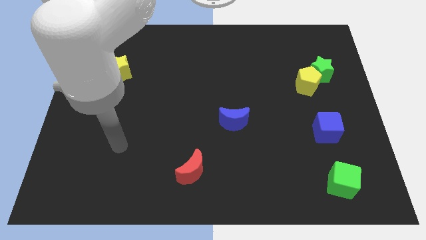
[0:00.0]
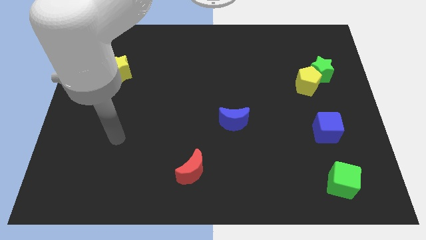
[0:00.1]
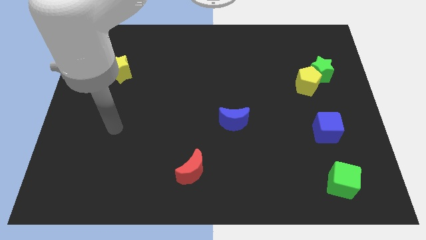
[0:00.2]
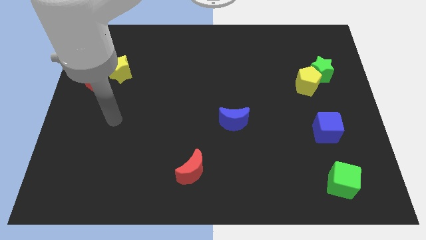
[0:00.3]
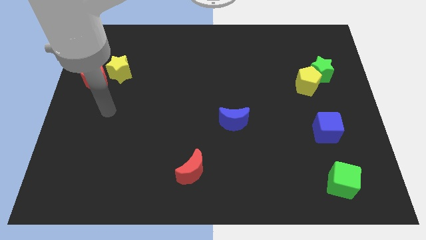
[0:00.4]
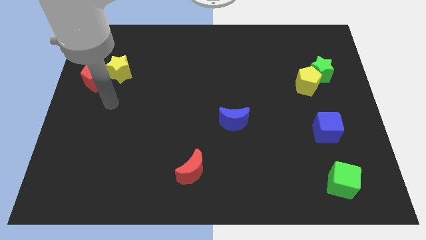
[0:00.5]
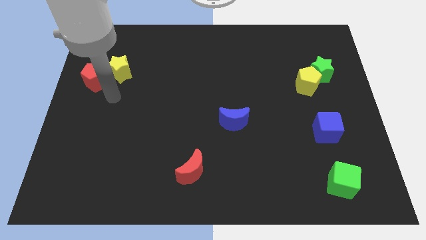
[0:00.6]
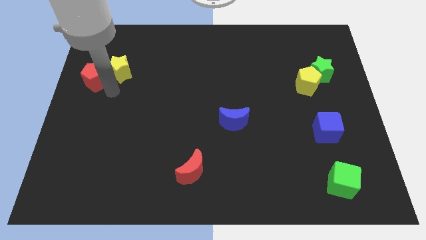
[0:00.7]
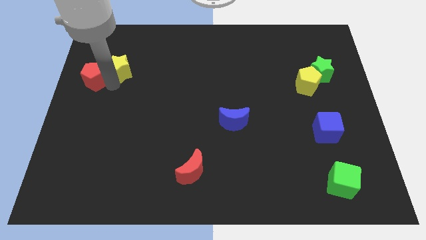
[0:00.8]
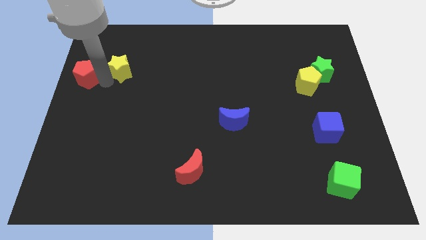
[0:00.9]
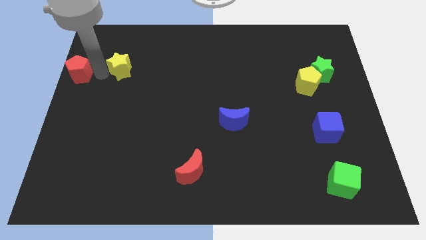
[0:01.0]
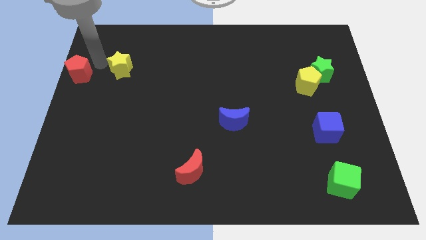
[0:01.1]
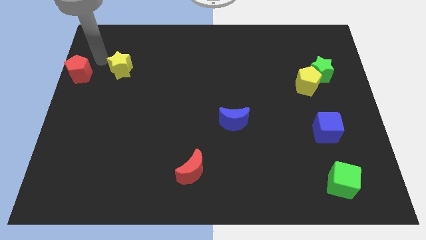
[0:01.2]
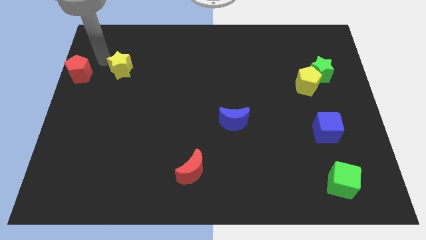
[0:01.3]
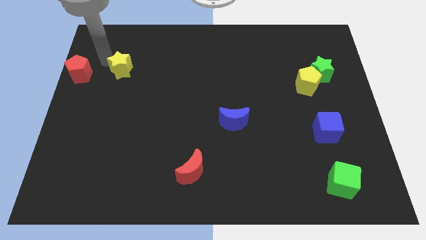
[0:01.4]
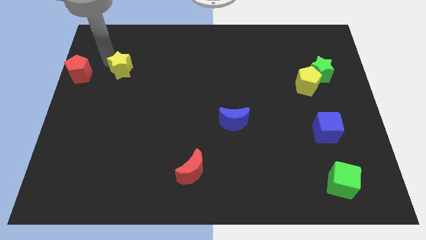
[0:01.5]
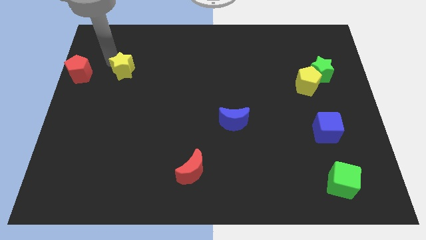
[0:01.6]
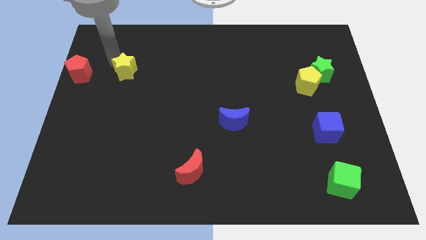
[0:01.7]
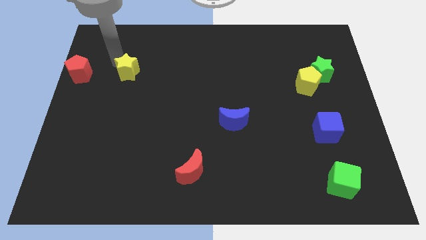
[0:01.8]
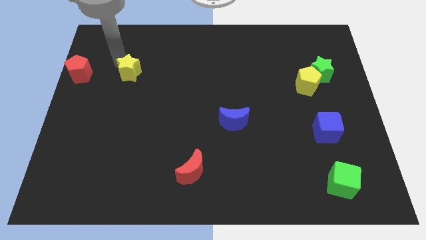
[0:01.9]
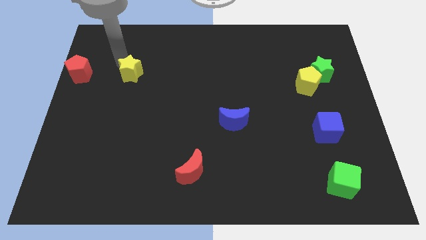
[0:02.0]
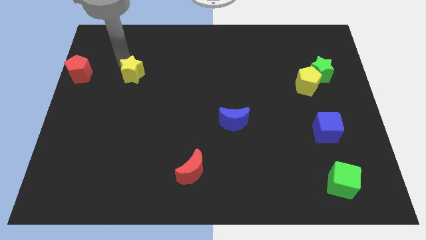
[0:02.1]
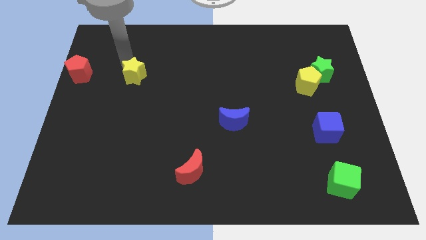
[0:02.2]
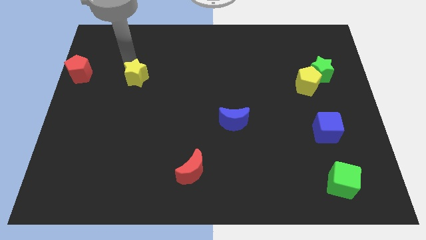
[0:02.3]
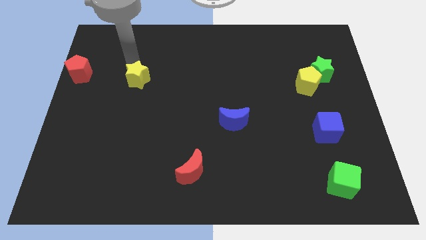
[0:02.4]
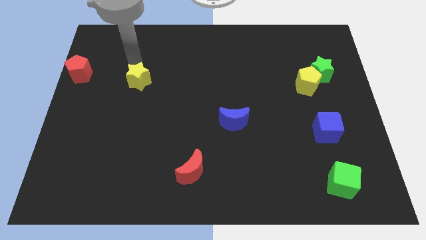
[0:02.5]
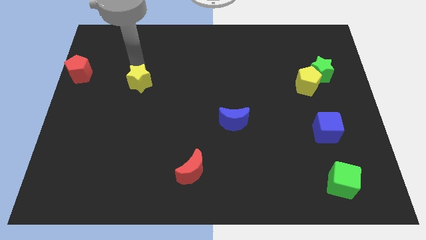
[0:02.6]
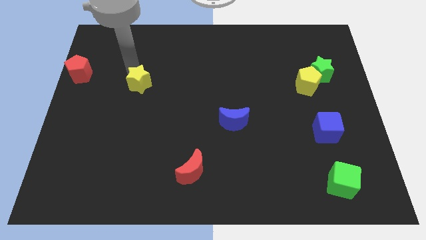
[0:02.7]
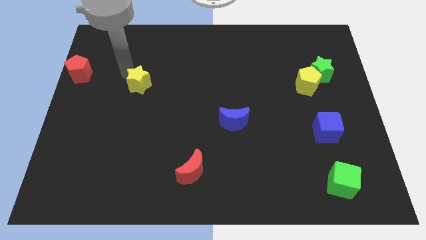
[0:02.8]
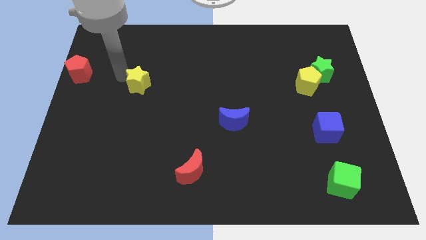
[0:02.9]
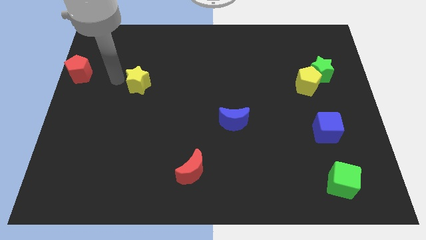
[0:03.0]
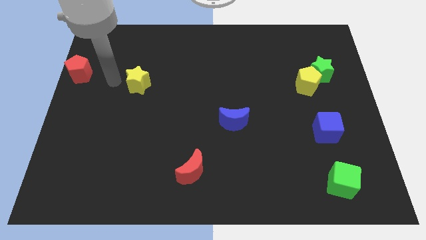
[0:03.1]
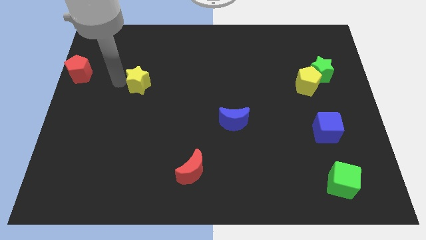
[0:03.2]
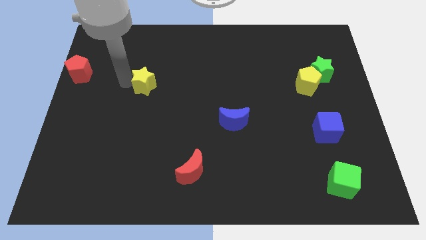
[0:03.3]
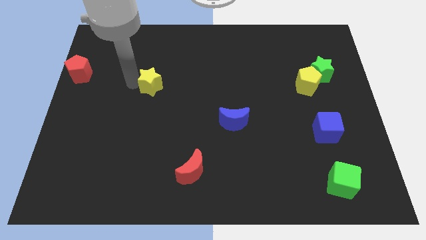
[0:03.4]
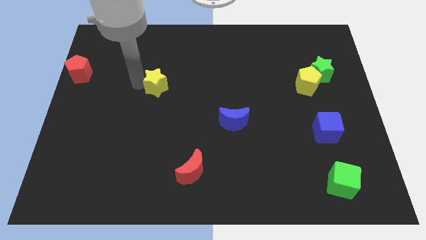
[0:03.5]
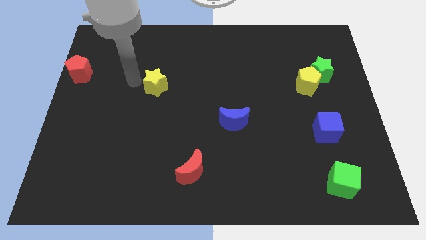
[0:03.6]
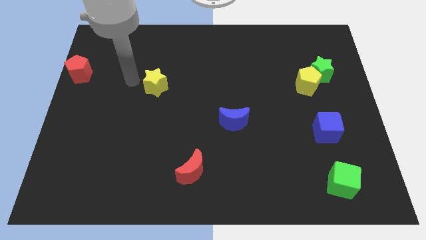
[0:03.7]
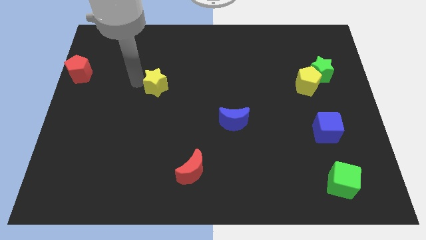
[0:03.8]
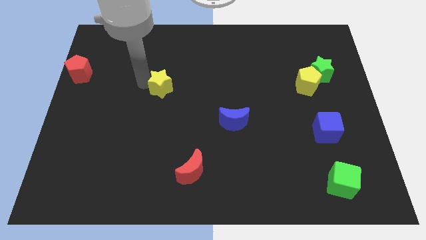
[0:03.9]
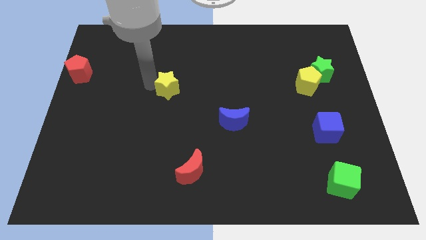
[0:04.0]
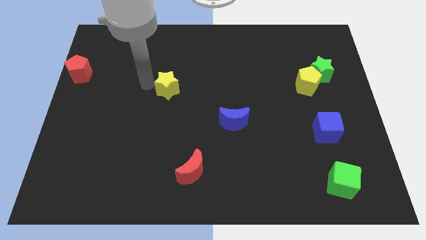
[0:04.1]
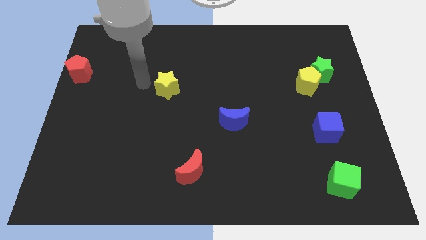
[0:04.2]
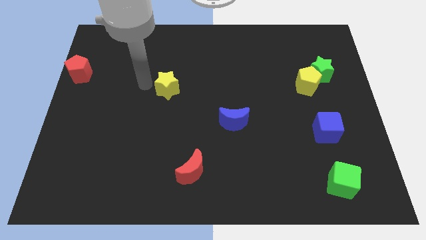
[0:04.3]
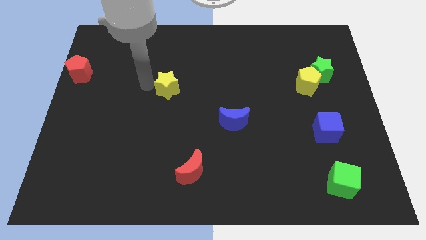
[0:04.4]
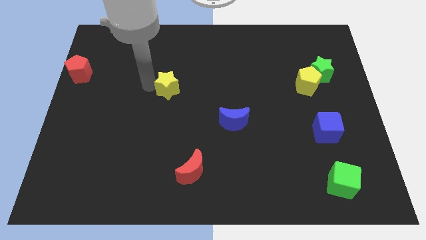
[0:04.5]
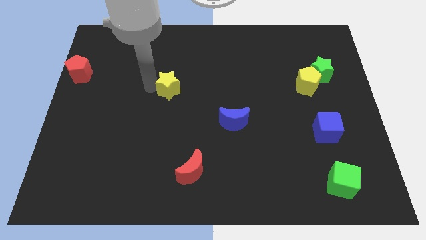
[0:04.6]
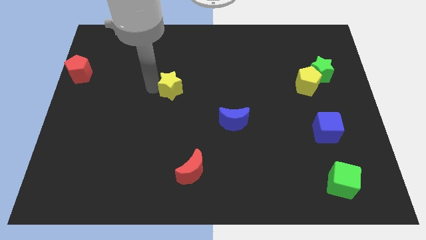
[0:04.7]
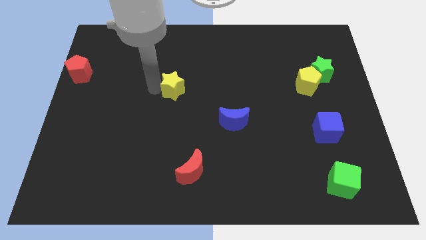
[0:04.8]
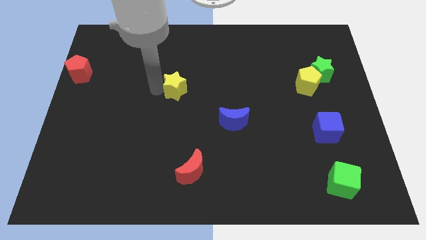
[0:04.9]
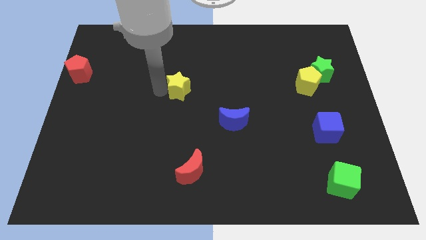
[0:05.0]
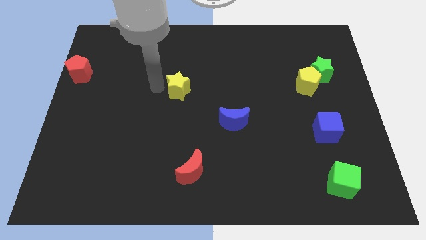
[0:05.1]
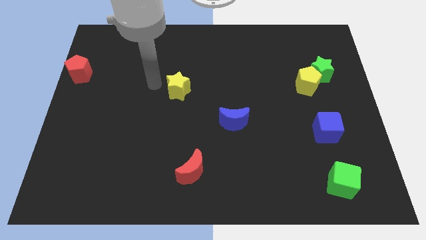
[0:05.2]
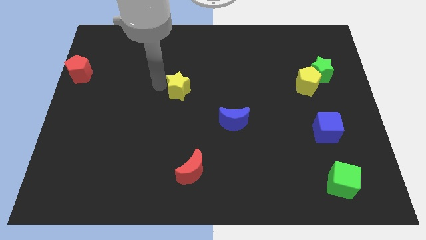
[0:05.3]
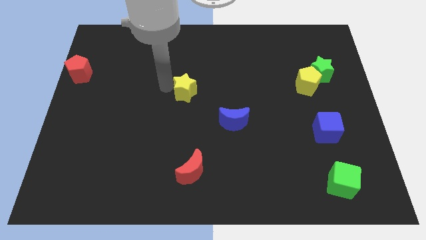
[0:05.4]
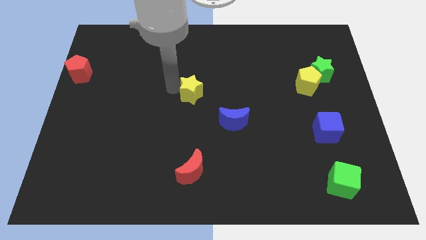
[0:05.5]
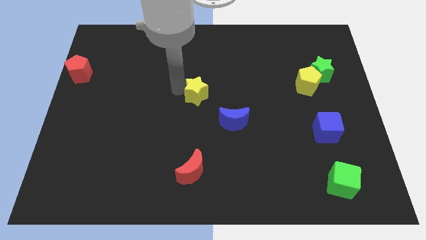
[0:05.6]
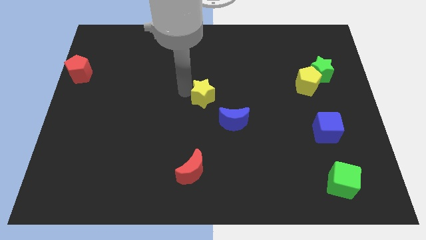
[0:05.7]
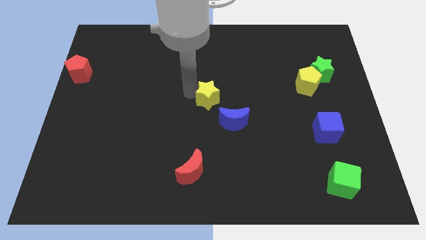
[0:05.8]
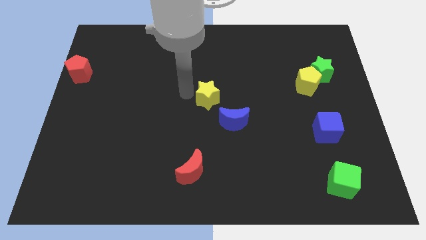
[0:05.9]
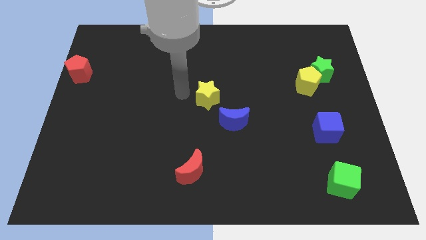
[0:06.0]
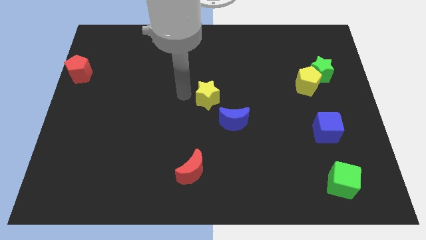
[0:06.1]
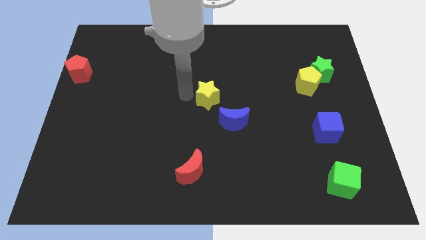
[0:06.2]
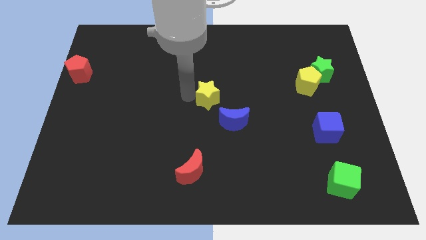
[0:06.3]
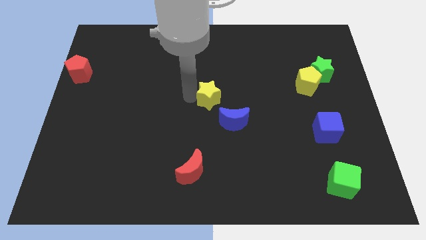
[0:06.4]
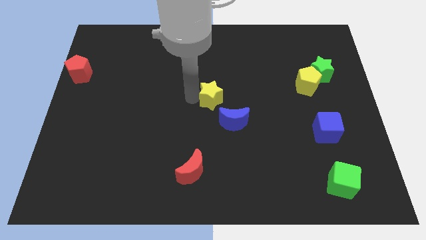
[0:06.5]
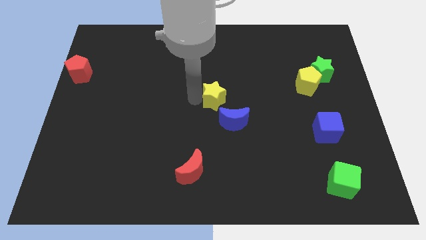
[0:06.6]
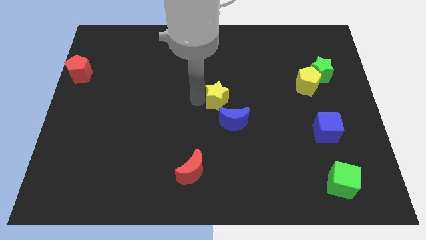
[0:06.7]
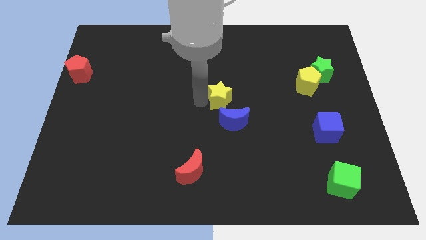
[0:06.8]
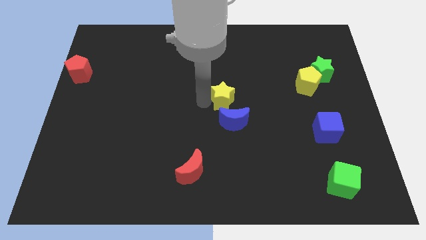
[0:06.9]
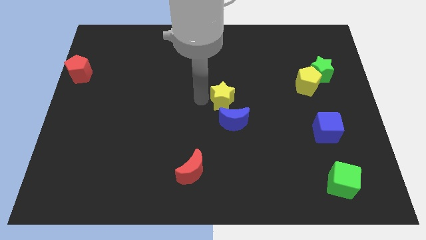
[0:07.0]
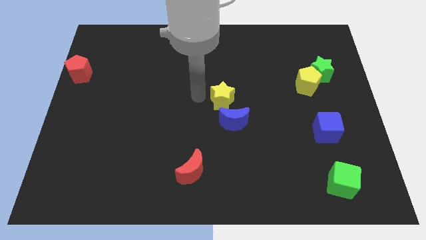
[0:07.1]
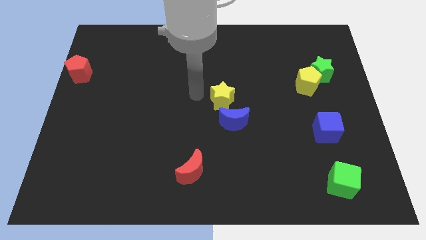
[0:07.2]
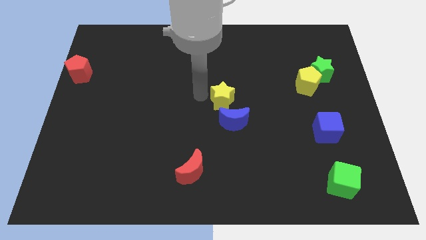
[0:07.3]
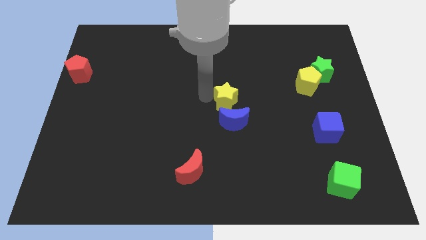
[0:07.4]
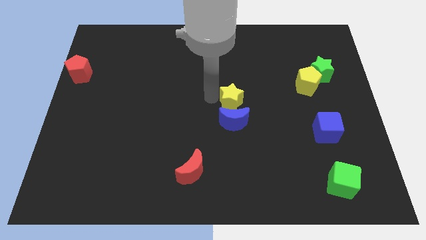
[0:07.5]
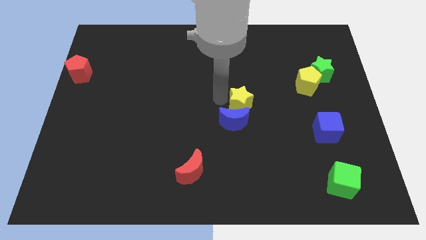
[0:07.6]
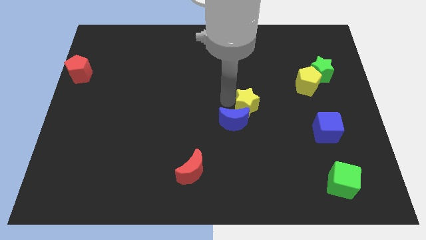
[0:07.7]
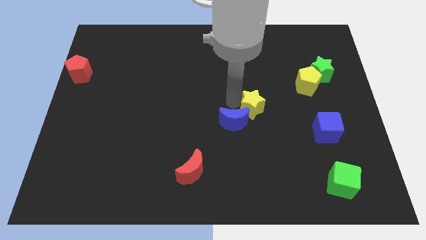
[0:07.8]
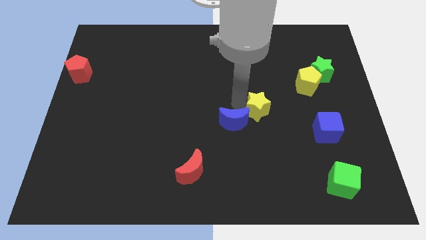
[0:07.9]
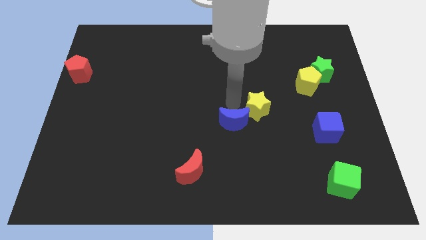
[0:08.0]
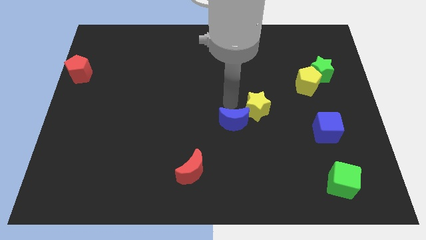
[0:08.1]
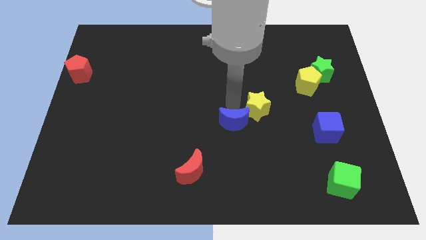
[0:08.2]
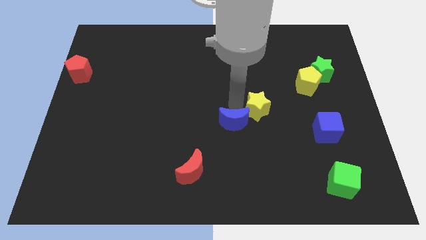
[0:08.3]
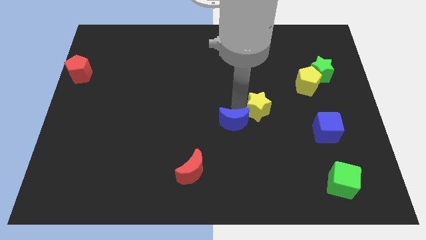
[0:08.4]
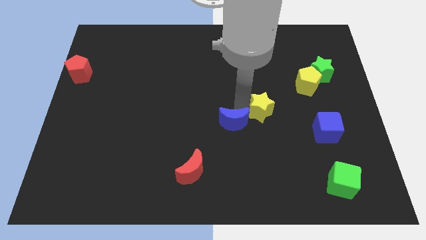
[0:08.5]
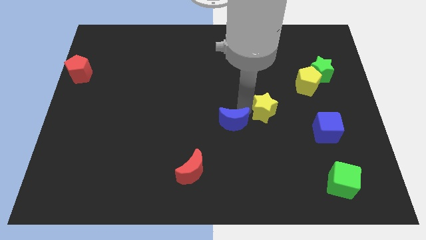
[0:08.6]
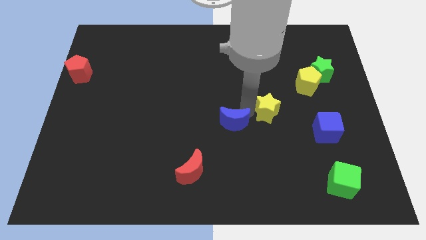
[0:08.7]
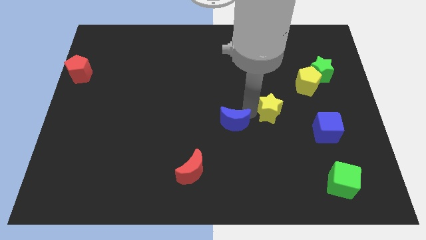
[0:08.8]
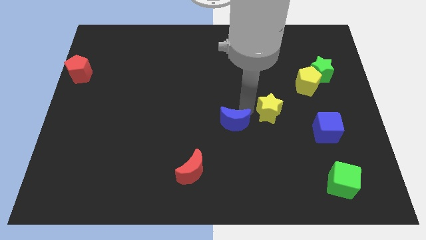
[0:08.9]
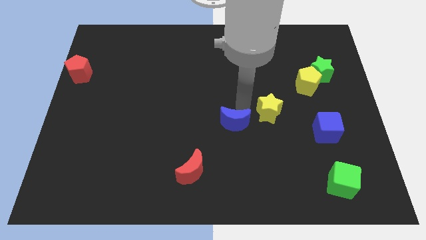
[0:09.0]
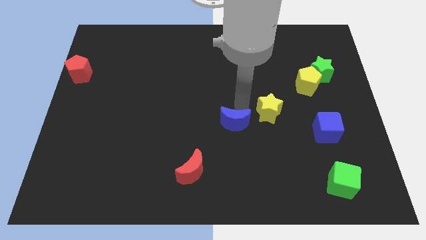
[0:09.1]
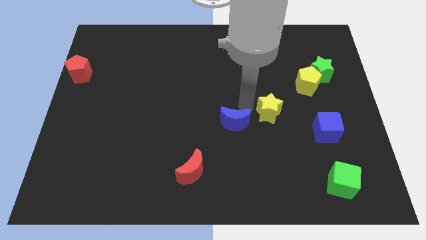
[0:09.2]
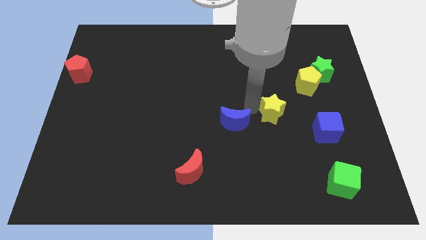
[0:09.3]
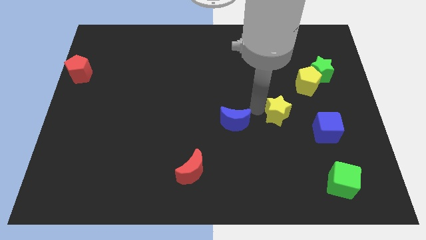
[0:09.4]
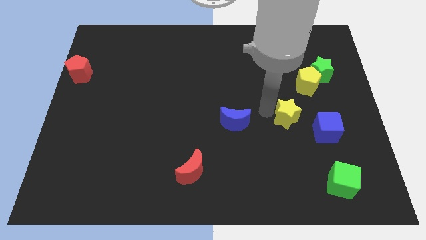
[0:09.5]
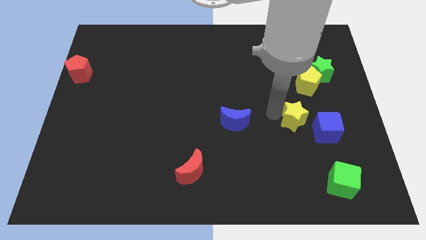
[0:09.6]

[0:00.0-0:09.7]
push the yellow star below the yellow pentagon
